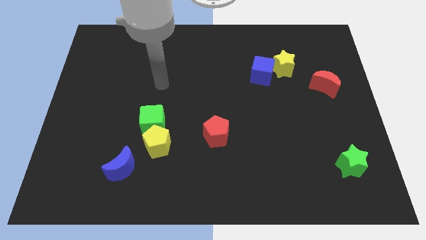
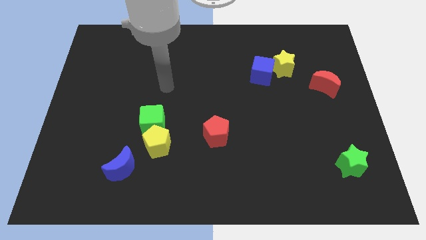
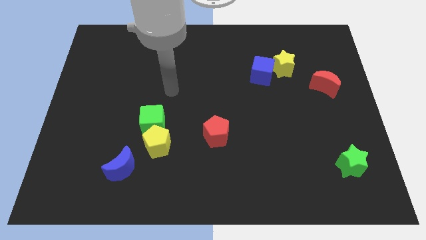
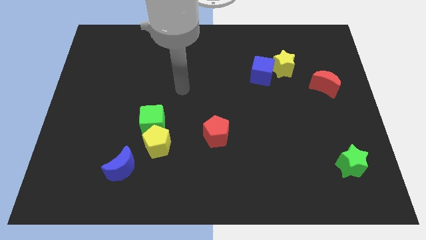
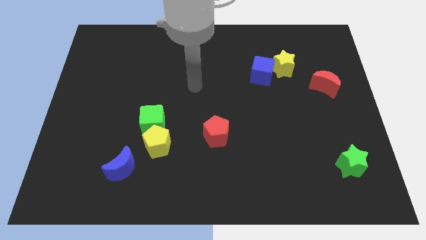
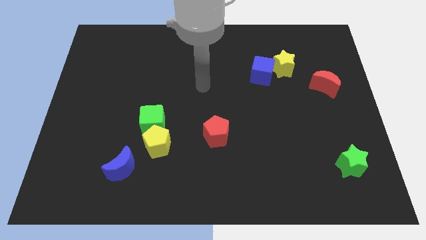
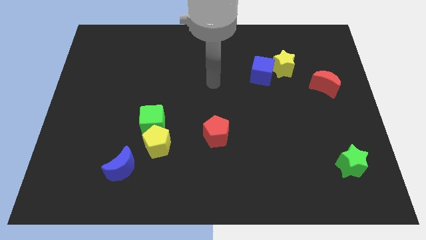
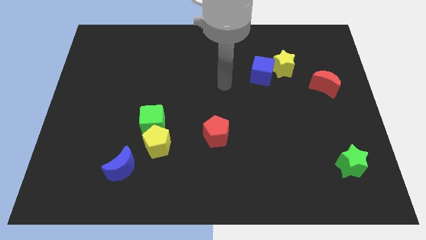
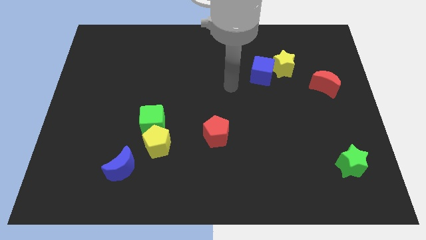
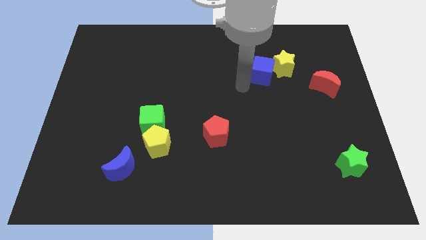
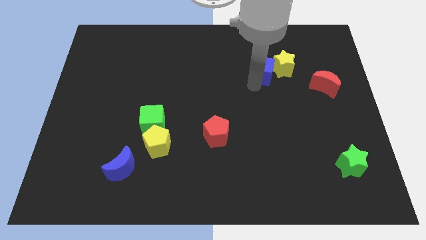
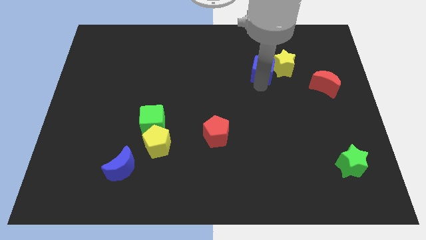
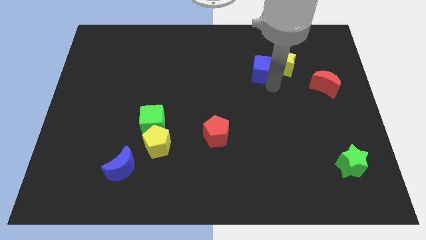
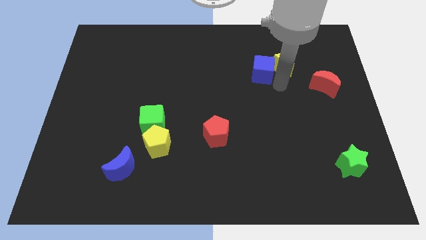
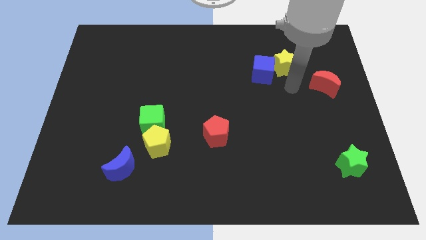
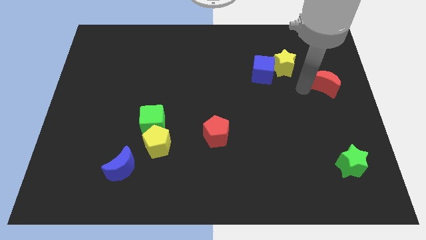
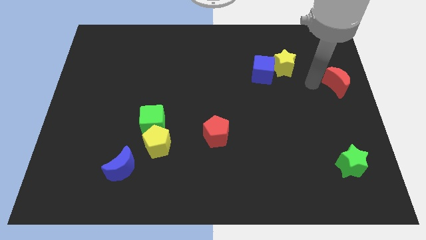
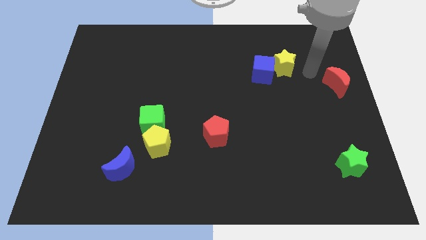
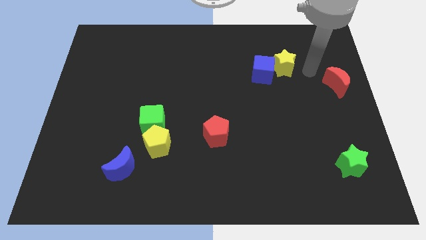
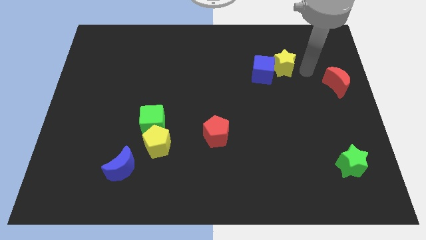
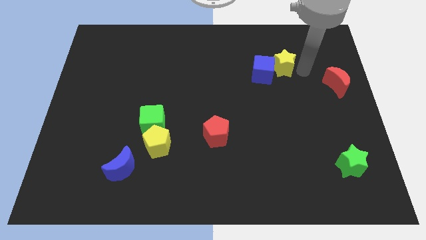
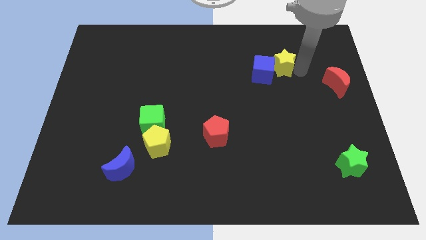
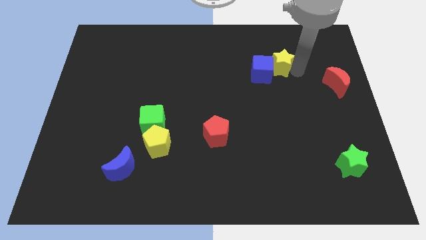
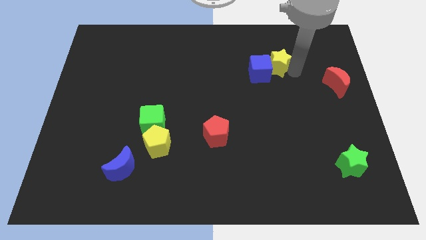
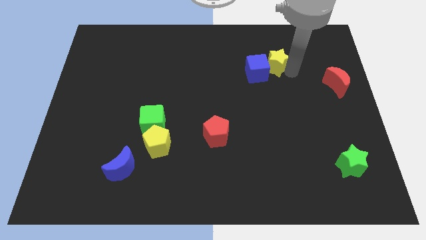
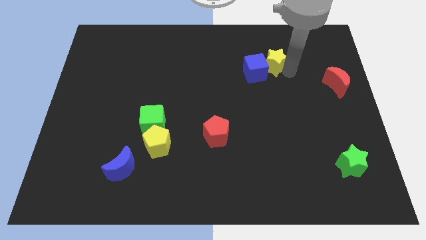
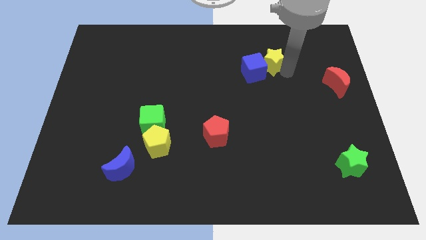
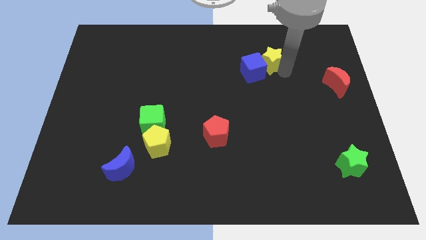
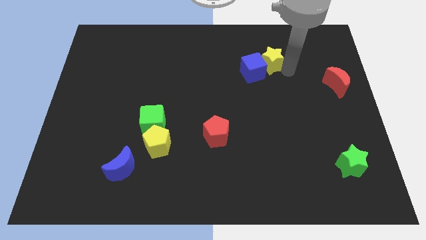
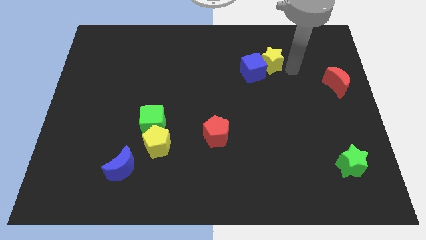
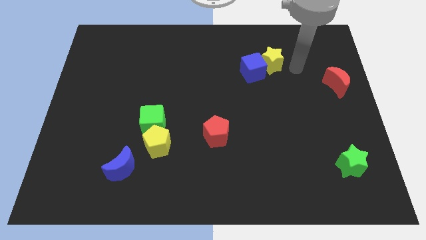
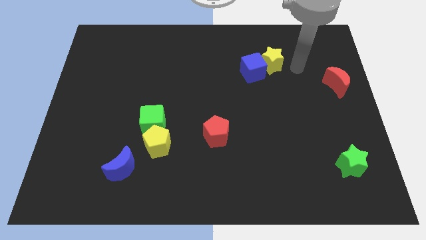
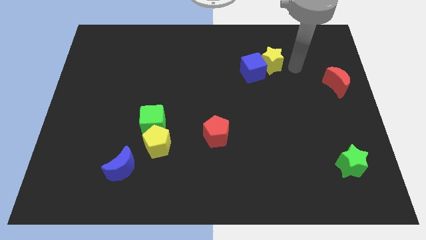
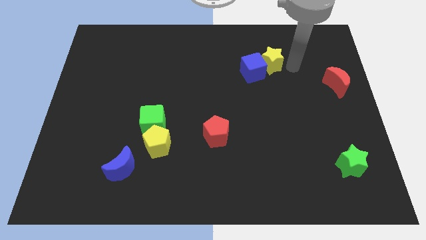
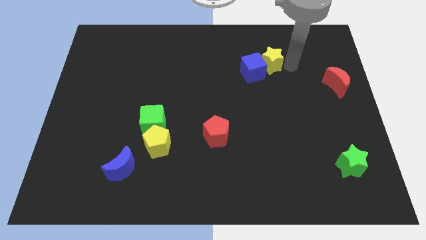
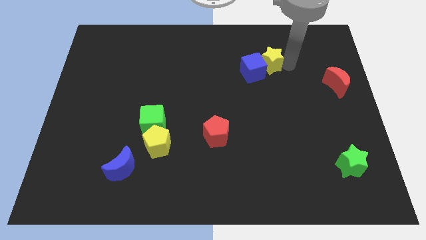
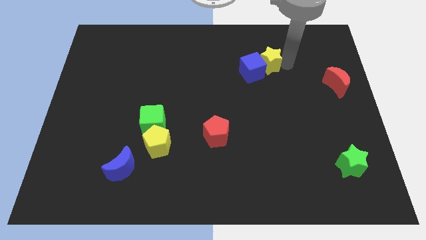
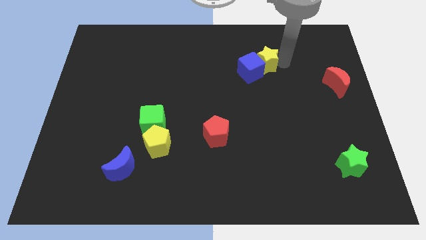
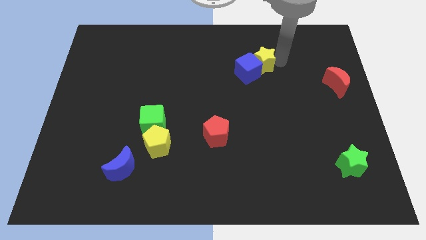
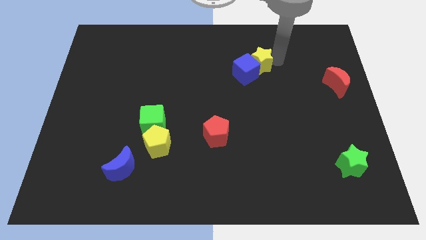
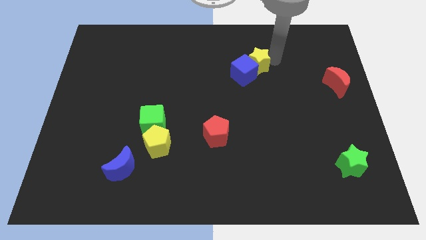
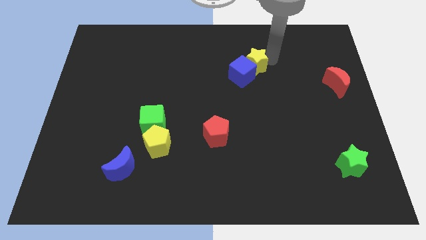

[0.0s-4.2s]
slightly slide the yellow star to the left

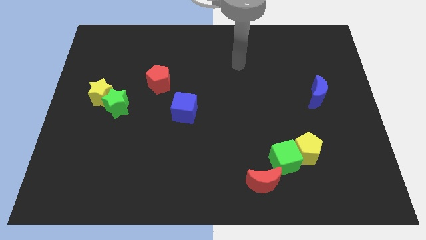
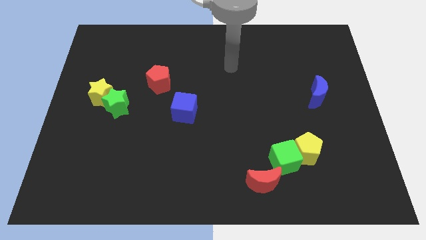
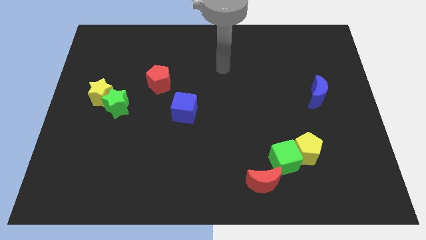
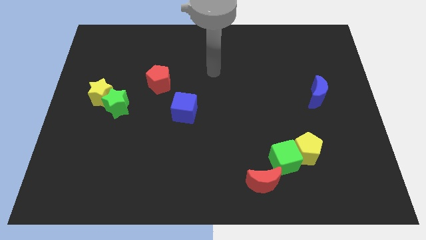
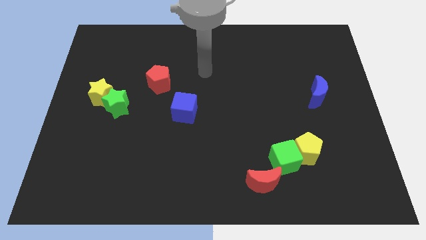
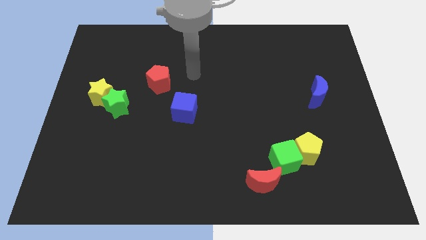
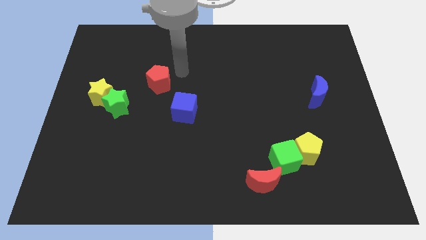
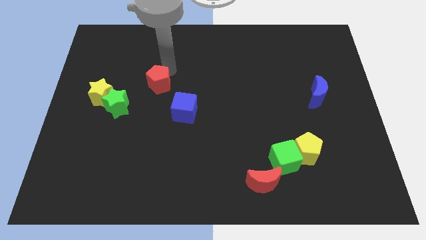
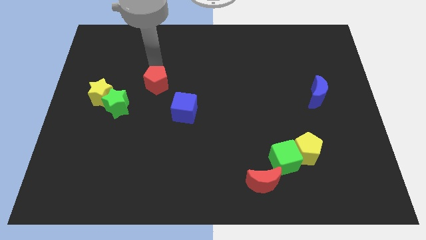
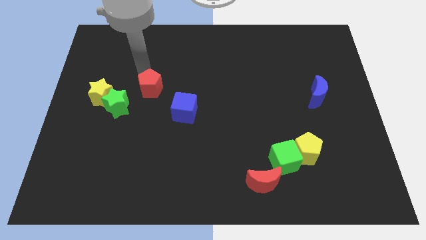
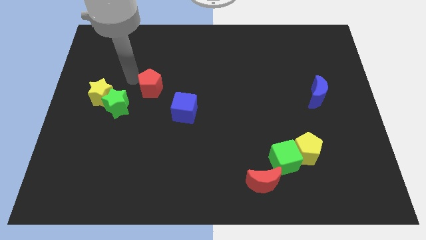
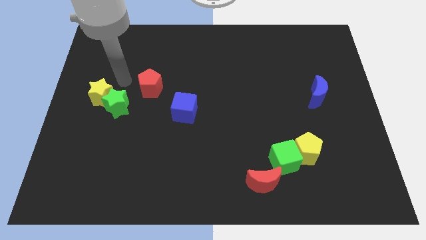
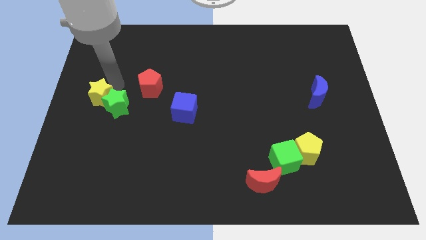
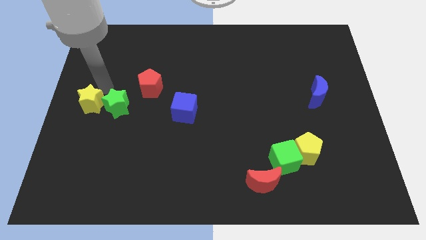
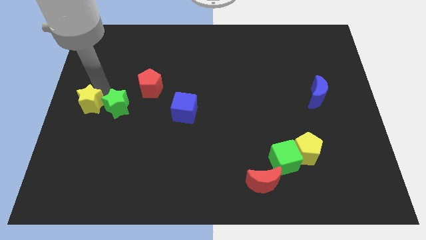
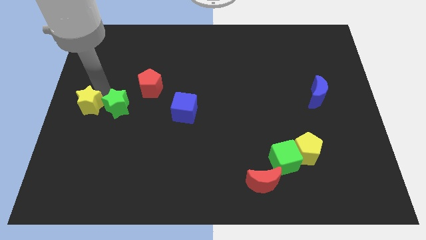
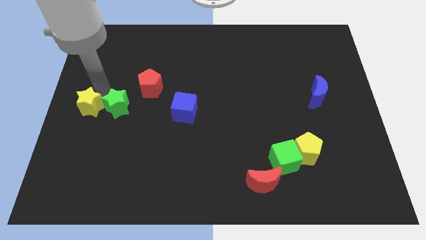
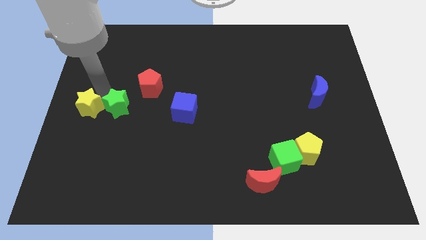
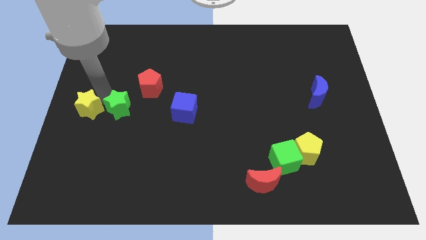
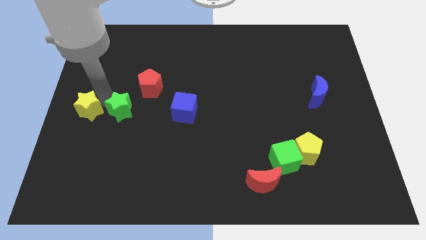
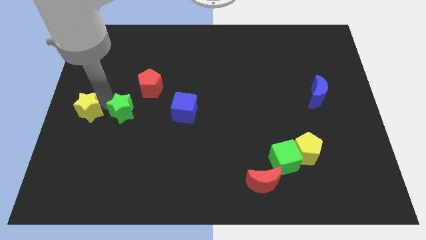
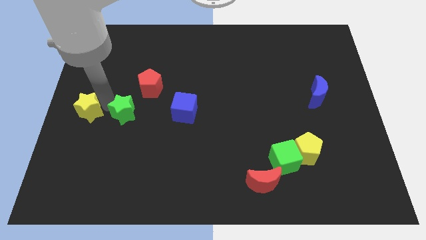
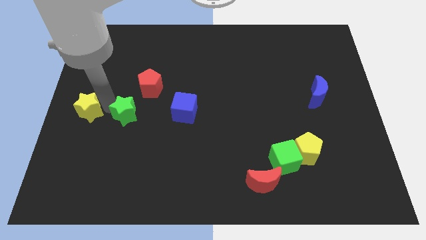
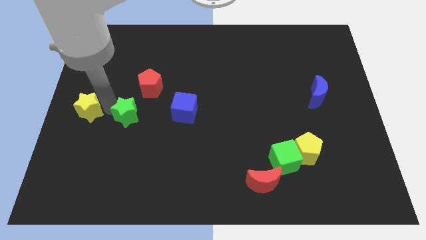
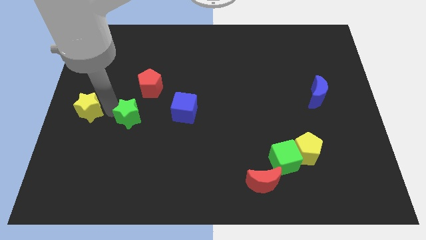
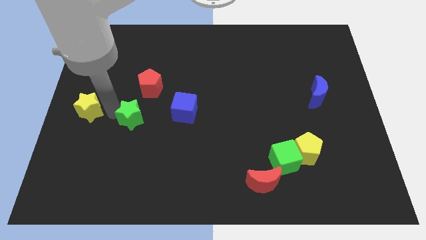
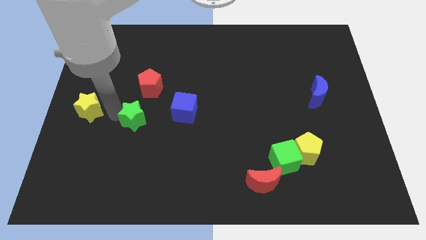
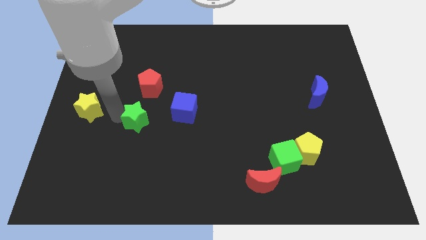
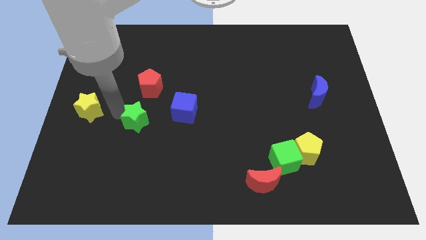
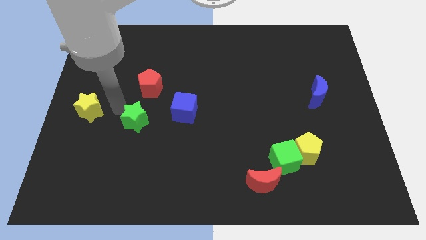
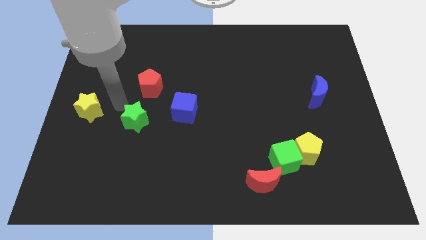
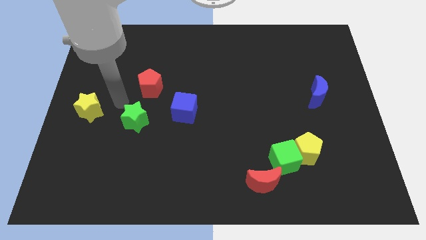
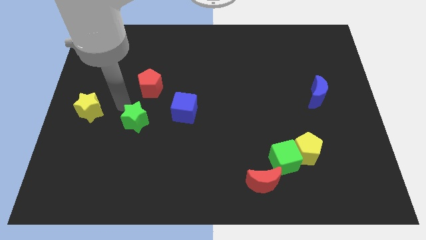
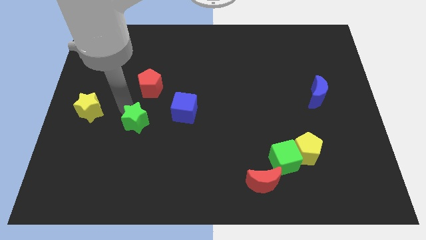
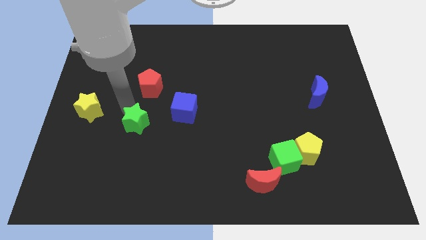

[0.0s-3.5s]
slightly slide the green star downwards and then right

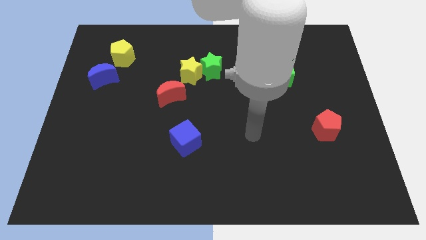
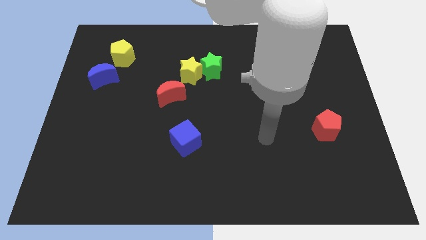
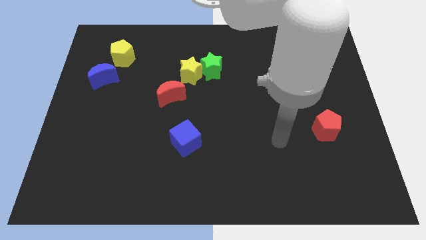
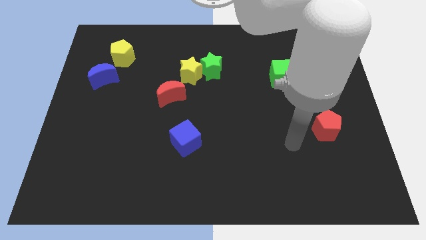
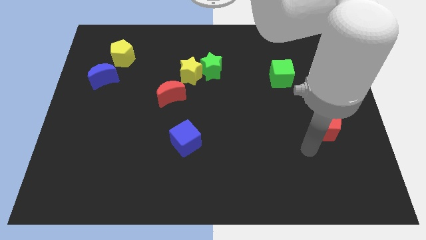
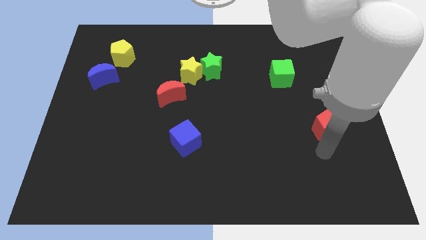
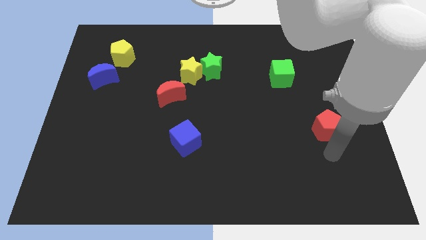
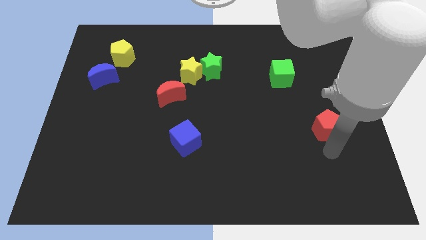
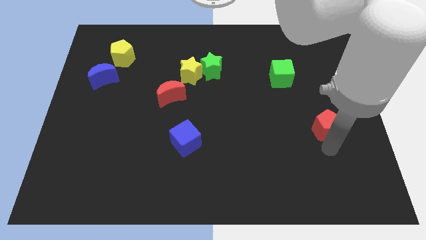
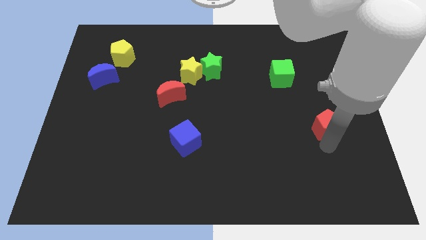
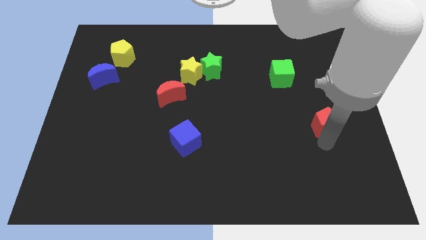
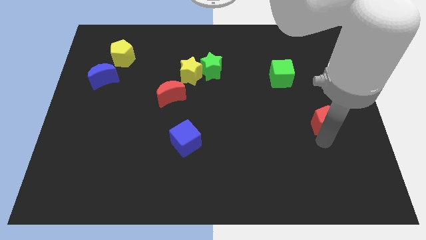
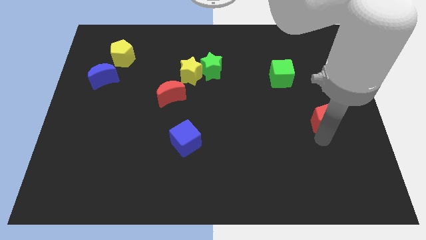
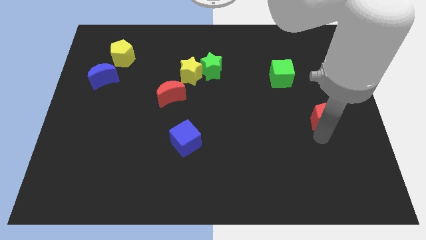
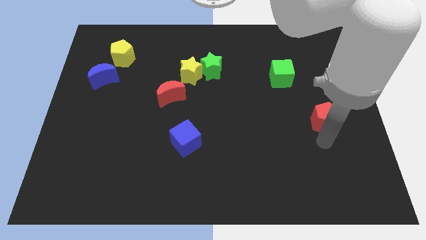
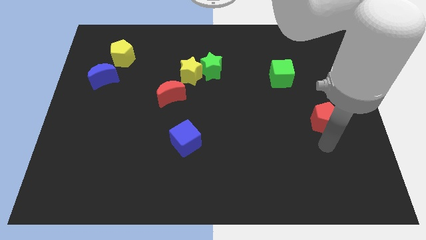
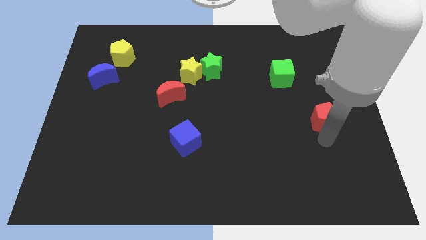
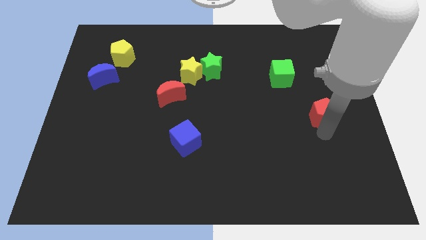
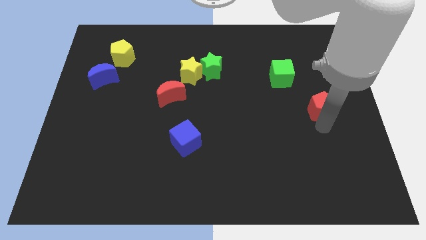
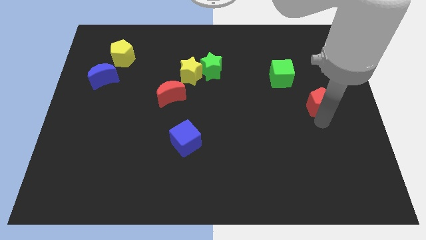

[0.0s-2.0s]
slide the red pentagon up a bit
